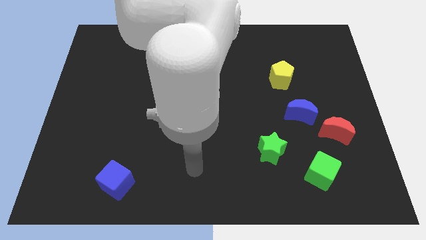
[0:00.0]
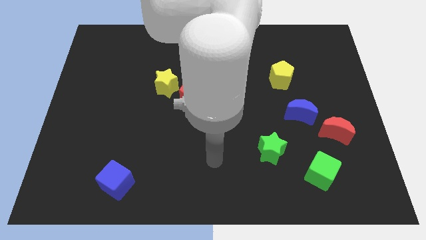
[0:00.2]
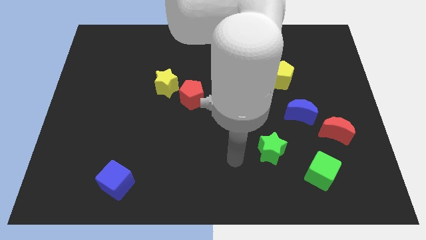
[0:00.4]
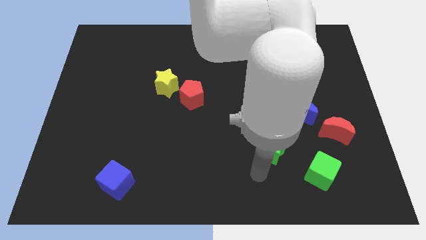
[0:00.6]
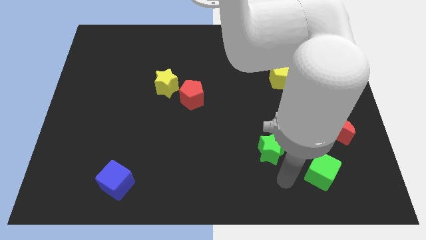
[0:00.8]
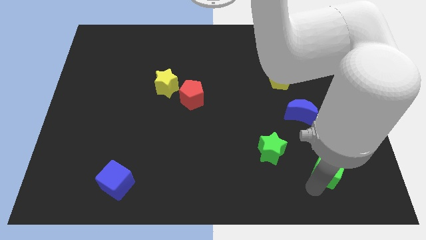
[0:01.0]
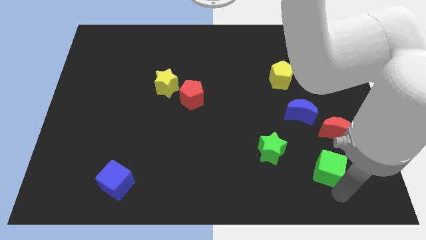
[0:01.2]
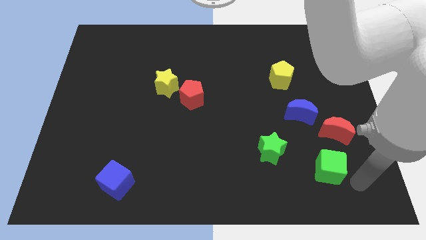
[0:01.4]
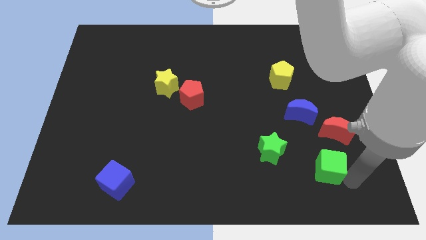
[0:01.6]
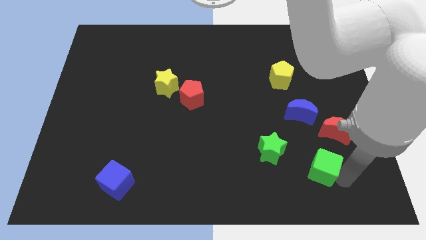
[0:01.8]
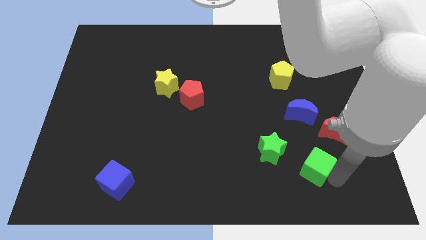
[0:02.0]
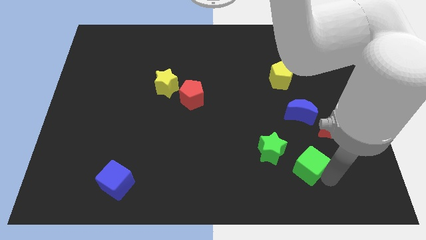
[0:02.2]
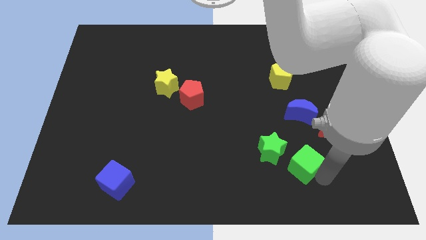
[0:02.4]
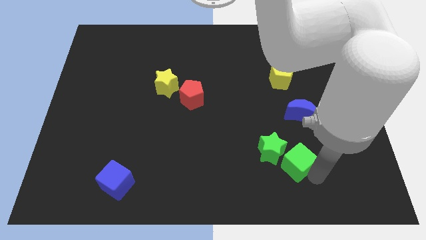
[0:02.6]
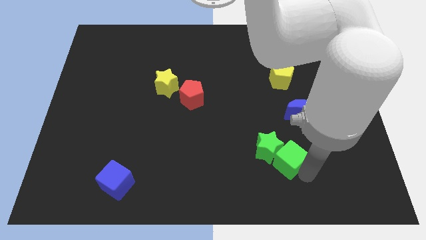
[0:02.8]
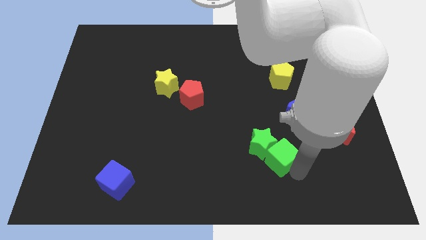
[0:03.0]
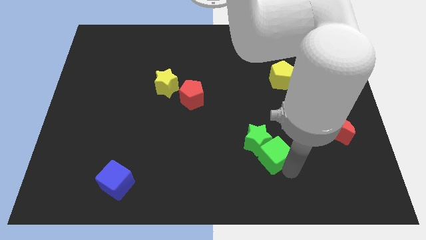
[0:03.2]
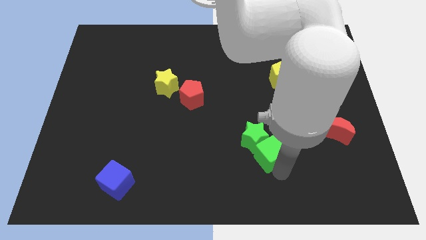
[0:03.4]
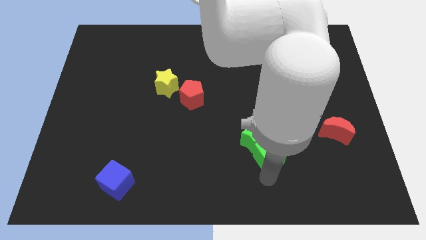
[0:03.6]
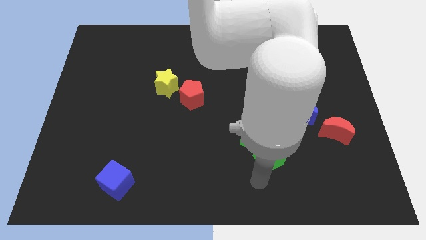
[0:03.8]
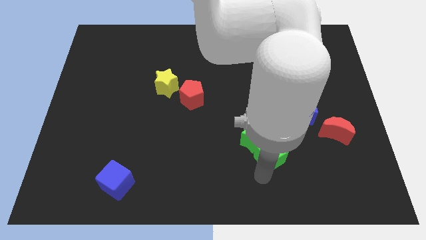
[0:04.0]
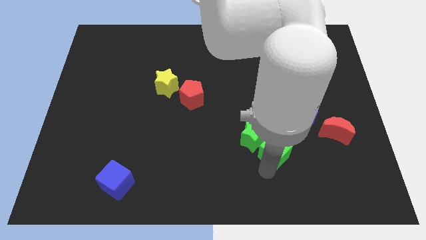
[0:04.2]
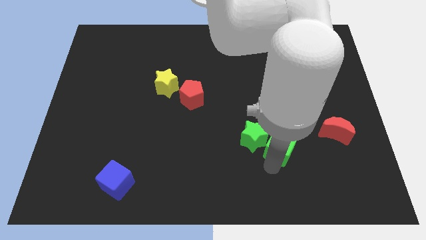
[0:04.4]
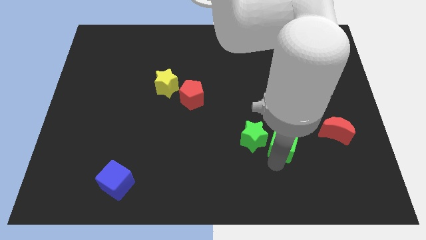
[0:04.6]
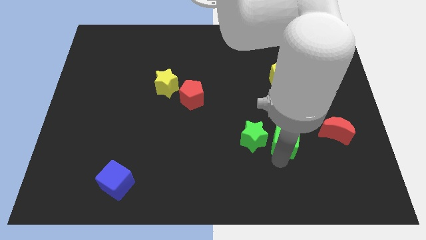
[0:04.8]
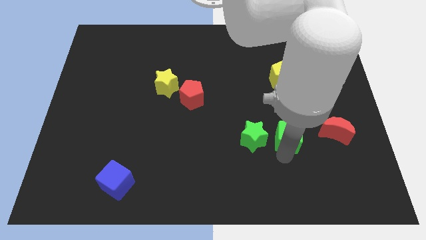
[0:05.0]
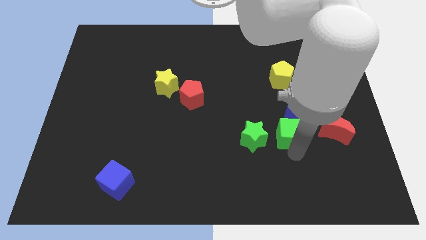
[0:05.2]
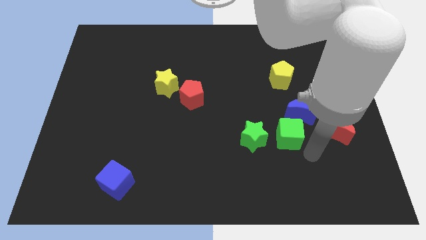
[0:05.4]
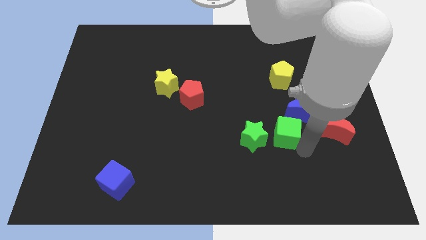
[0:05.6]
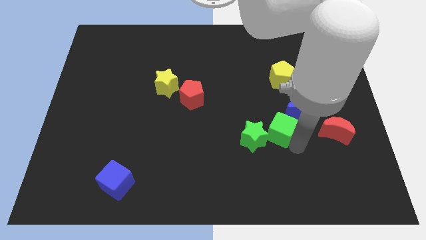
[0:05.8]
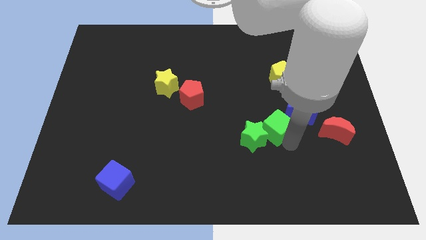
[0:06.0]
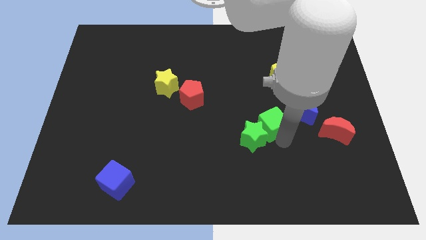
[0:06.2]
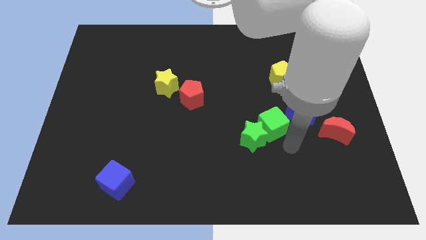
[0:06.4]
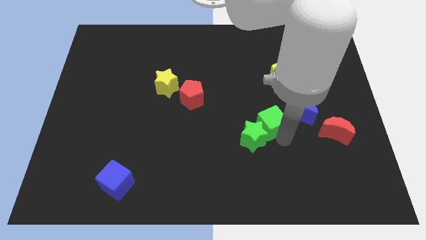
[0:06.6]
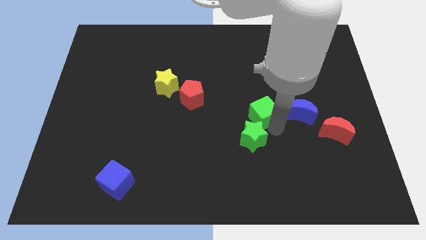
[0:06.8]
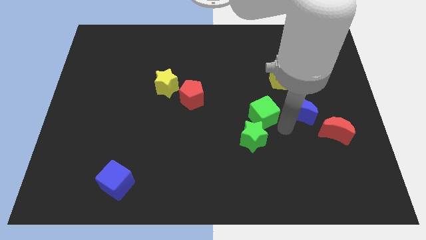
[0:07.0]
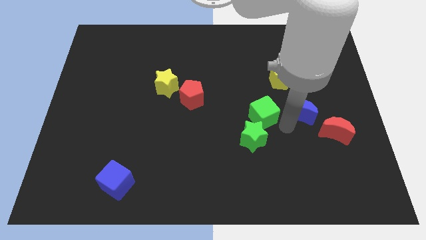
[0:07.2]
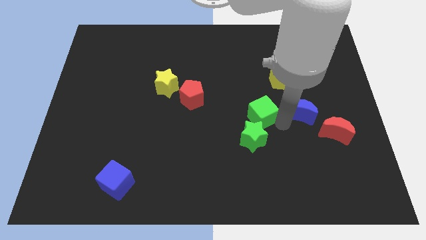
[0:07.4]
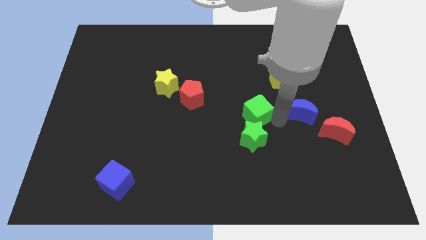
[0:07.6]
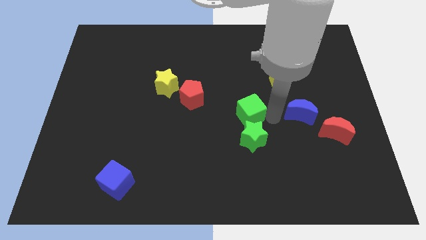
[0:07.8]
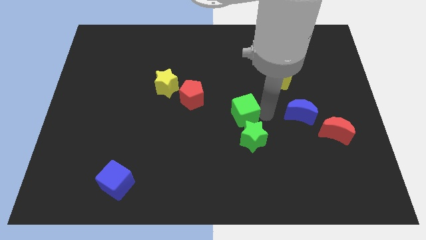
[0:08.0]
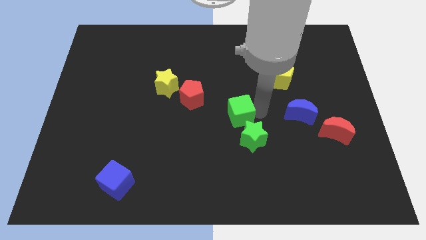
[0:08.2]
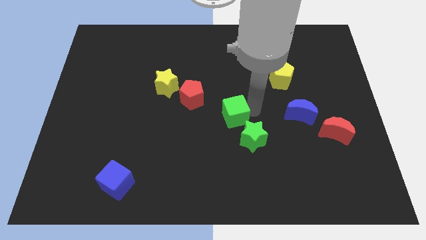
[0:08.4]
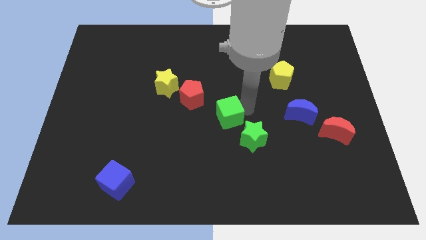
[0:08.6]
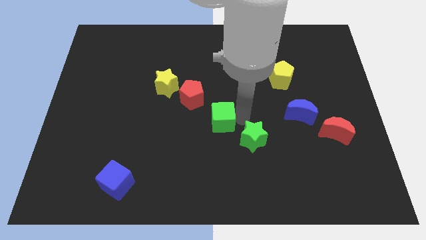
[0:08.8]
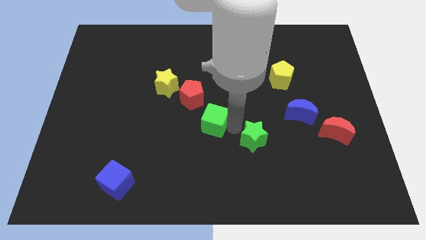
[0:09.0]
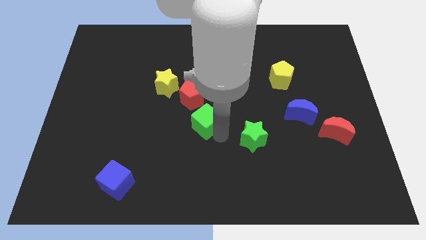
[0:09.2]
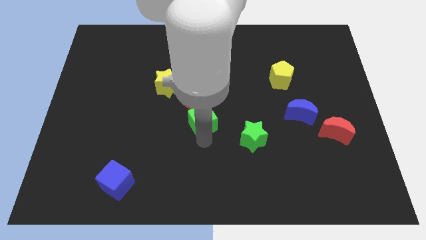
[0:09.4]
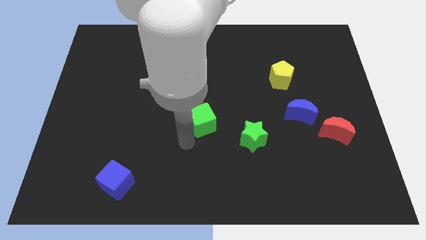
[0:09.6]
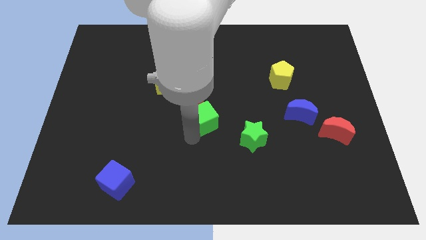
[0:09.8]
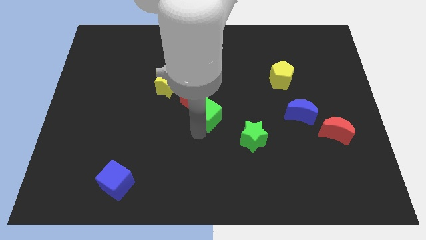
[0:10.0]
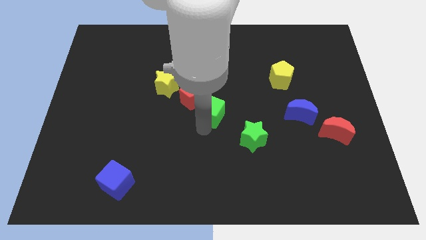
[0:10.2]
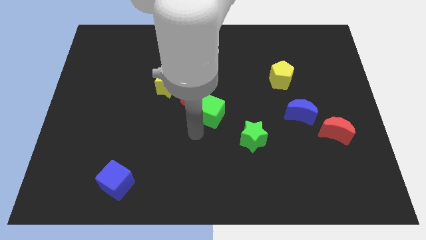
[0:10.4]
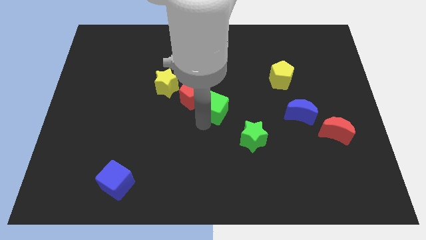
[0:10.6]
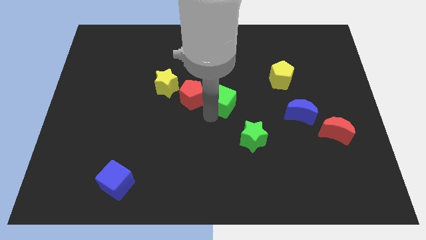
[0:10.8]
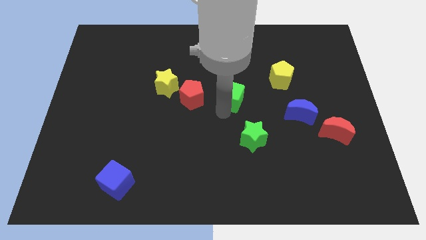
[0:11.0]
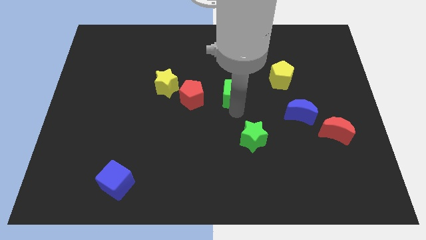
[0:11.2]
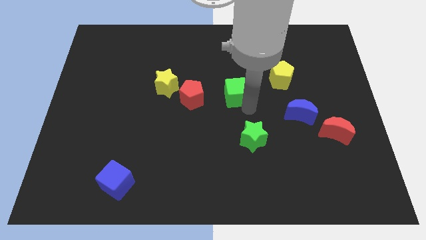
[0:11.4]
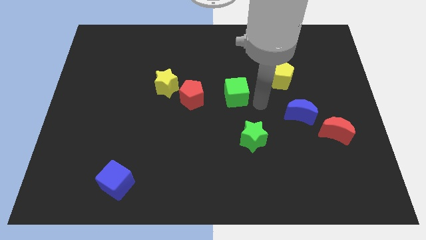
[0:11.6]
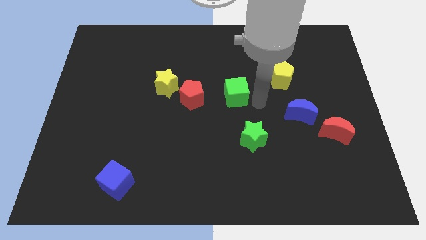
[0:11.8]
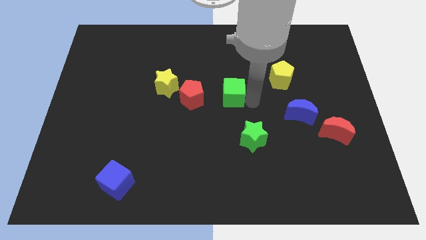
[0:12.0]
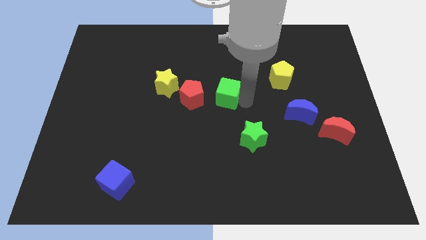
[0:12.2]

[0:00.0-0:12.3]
slide the green cube just right of the yellow star

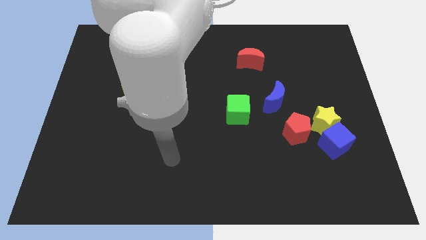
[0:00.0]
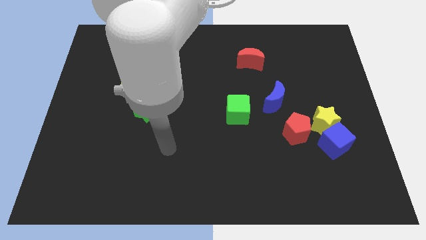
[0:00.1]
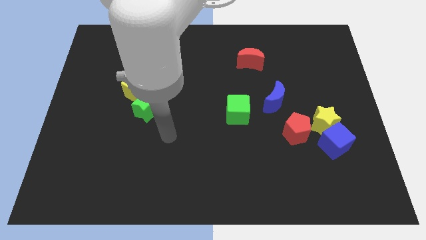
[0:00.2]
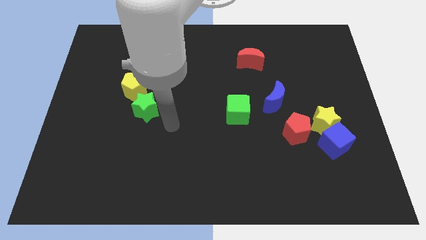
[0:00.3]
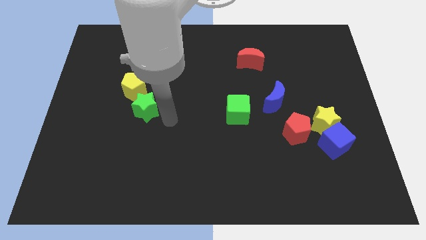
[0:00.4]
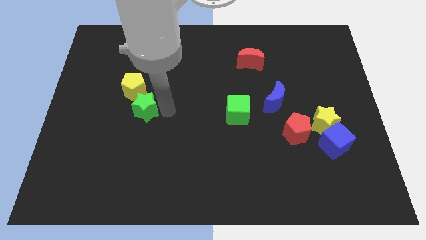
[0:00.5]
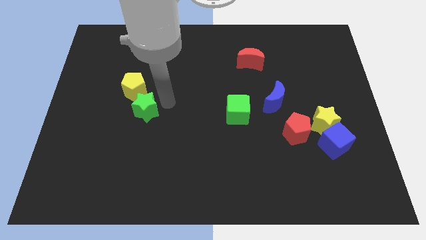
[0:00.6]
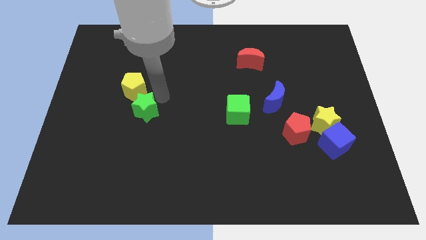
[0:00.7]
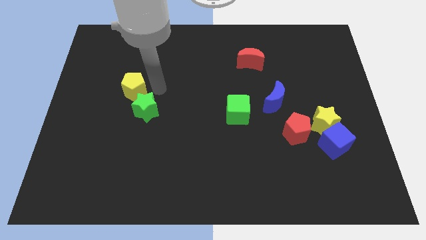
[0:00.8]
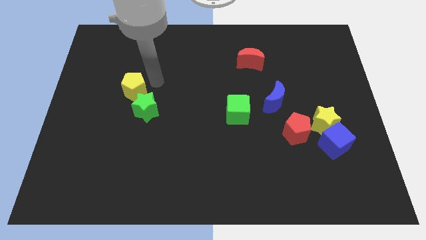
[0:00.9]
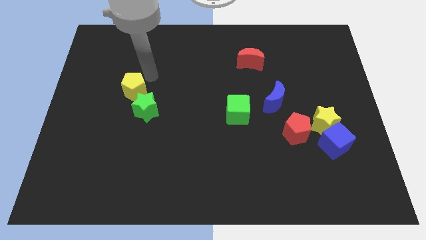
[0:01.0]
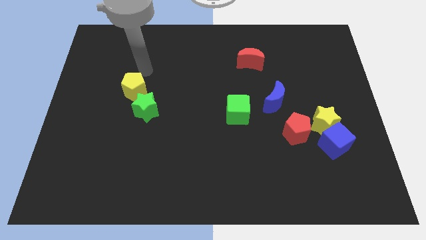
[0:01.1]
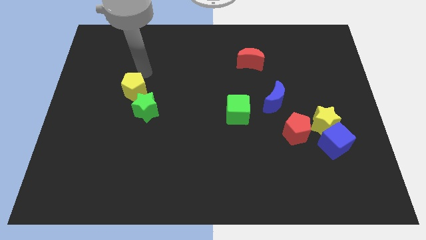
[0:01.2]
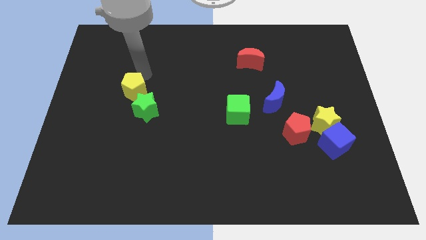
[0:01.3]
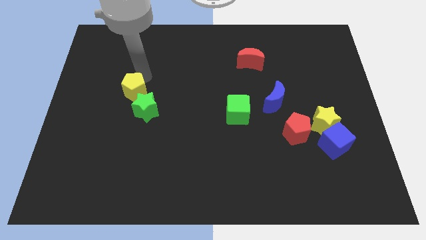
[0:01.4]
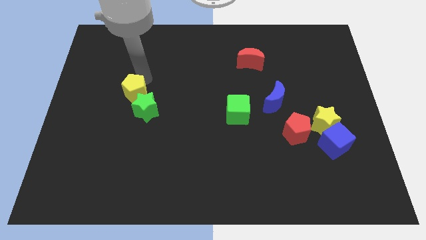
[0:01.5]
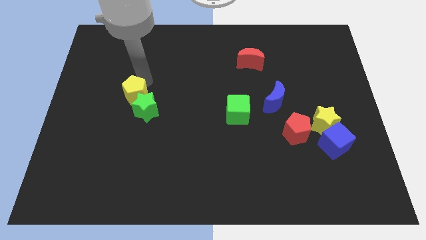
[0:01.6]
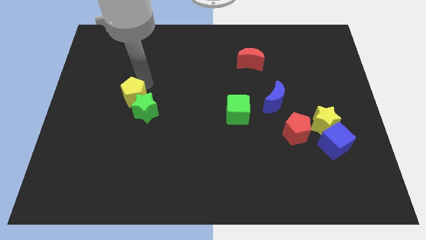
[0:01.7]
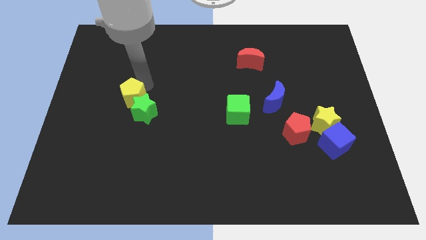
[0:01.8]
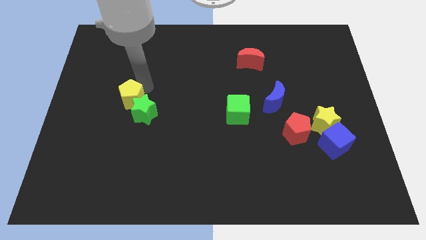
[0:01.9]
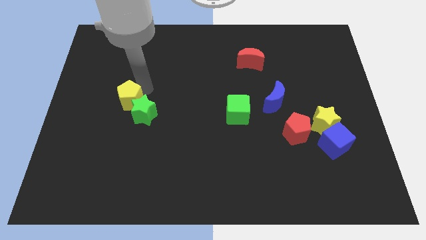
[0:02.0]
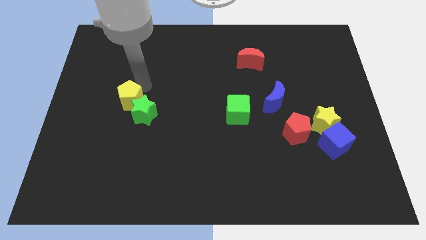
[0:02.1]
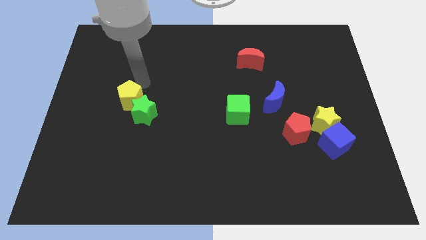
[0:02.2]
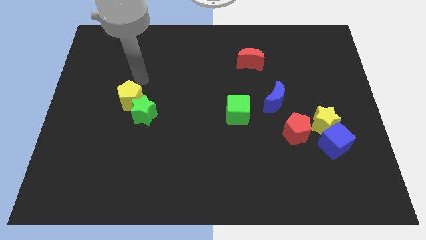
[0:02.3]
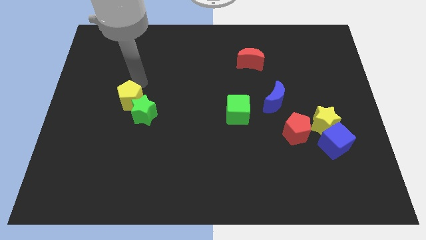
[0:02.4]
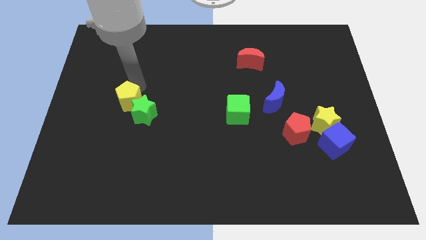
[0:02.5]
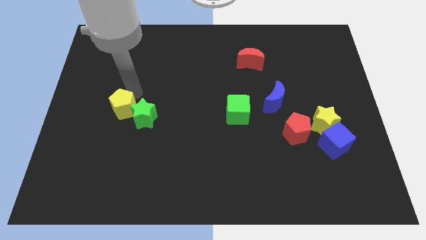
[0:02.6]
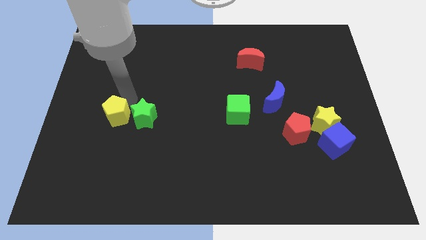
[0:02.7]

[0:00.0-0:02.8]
put the yellow pentagon to the bottom left of the green star
